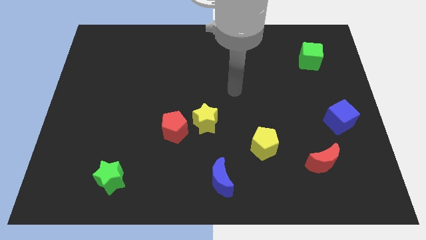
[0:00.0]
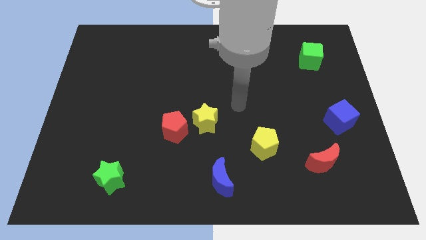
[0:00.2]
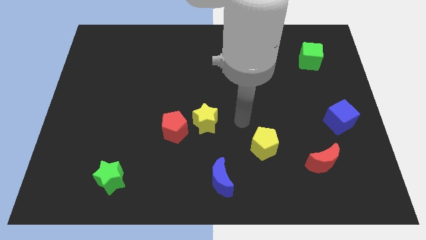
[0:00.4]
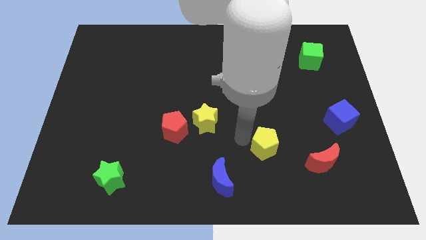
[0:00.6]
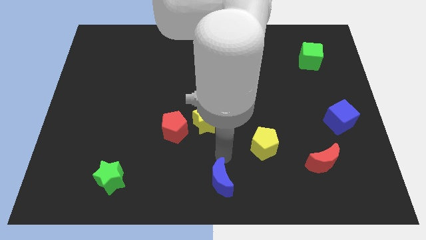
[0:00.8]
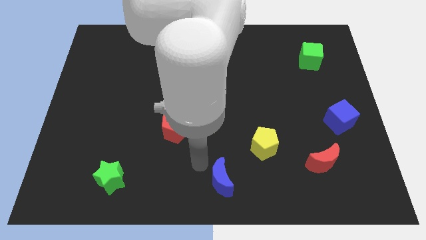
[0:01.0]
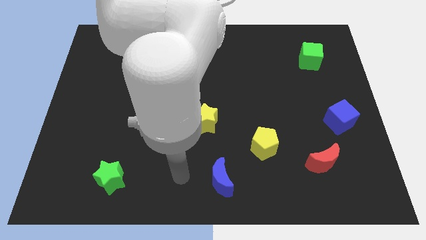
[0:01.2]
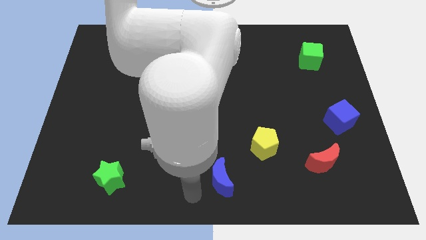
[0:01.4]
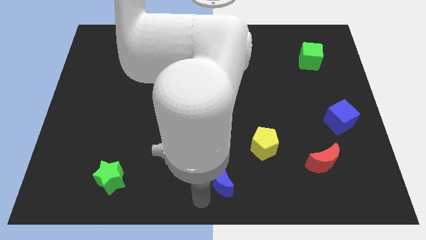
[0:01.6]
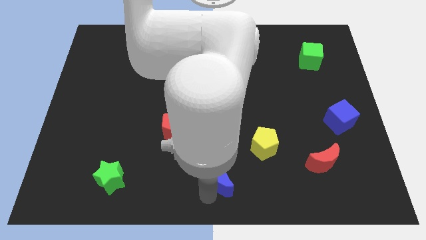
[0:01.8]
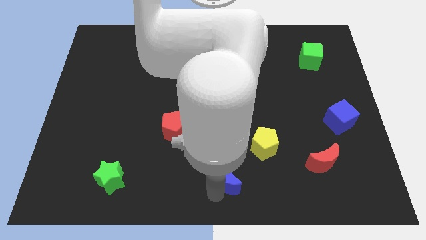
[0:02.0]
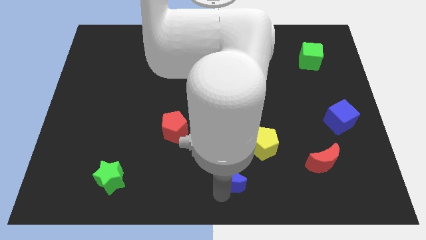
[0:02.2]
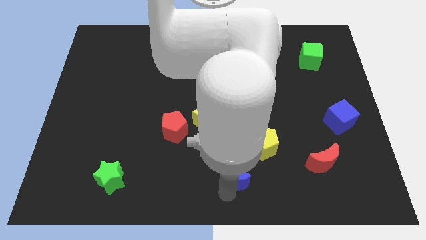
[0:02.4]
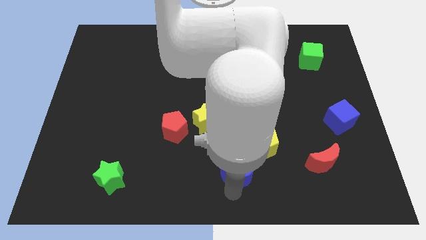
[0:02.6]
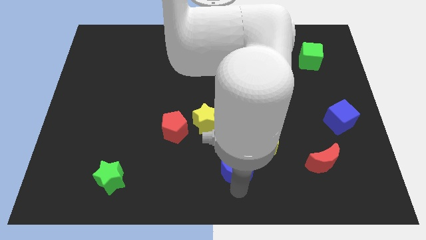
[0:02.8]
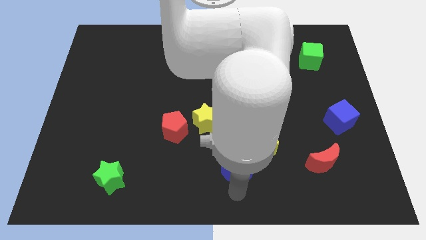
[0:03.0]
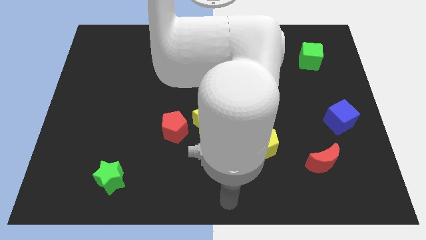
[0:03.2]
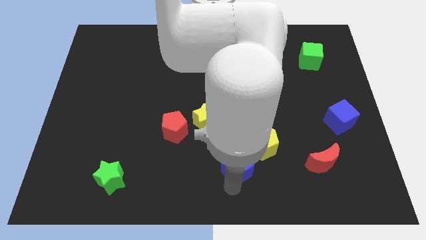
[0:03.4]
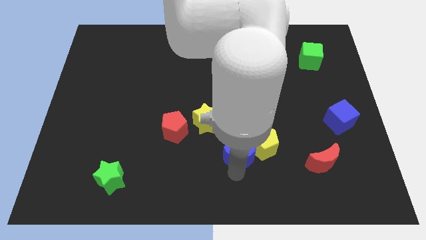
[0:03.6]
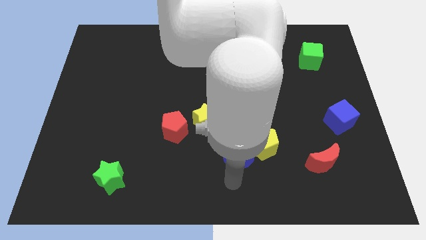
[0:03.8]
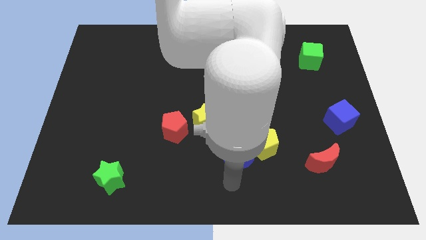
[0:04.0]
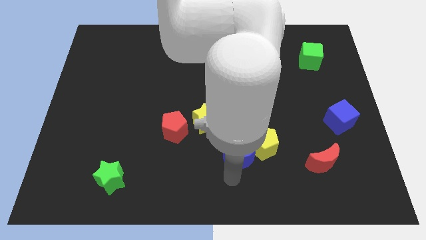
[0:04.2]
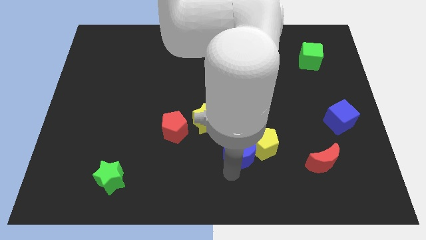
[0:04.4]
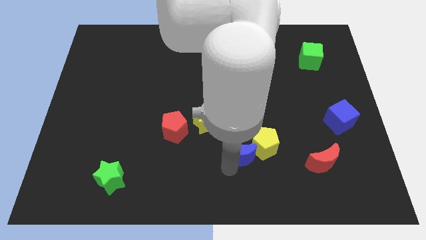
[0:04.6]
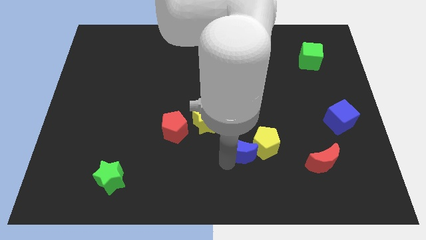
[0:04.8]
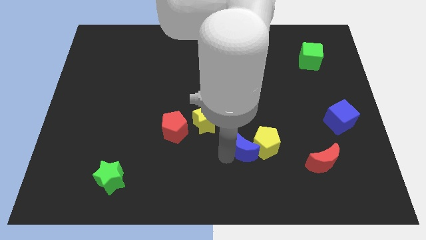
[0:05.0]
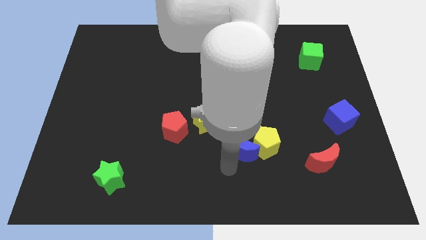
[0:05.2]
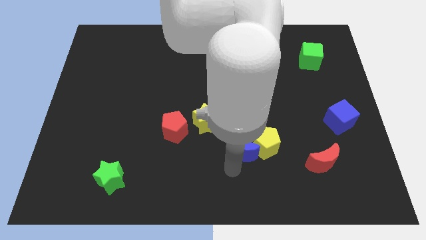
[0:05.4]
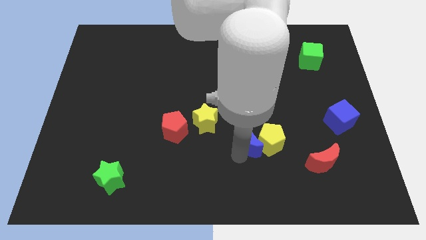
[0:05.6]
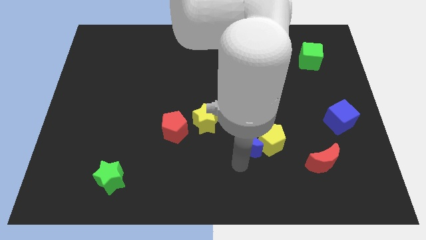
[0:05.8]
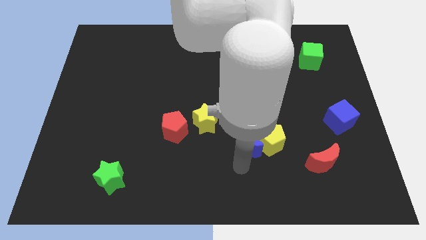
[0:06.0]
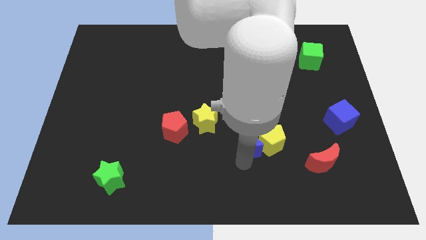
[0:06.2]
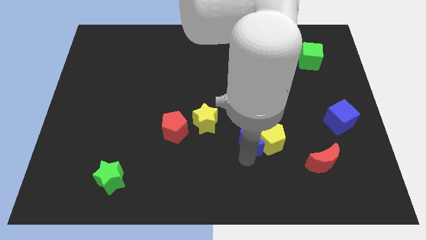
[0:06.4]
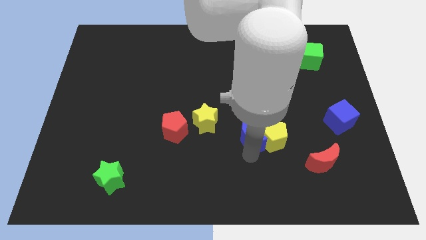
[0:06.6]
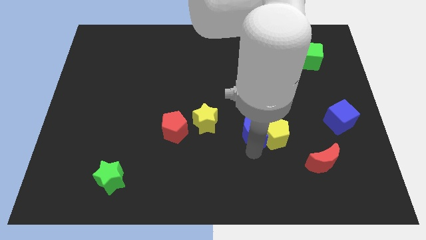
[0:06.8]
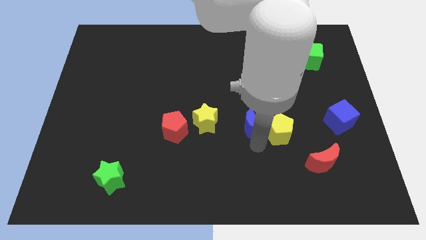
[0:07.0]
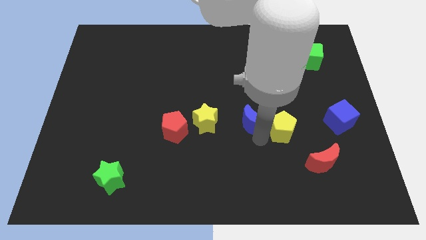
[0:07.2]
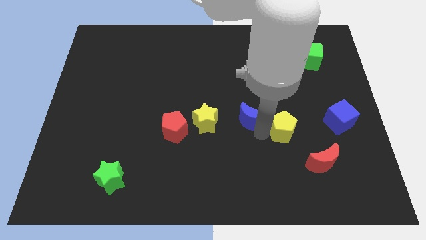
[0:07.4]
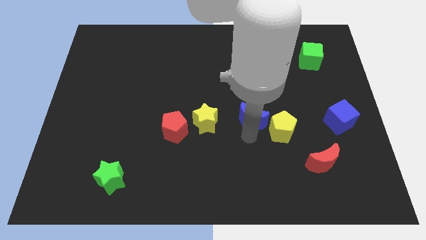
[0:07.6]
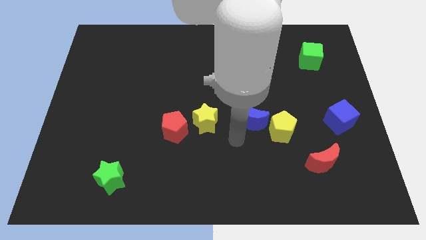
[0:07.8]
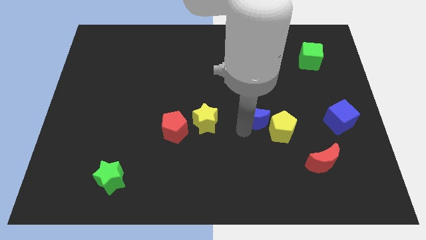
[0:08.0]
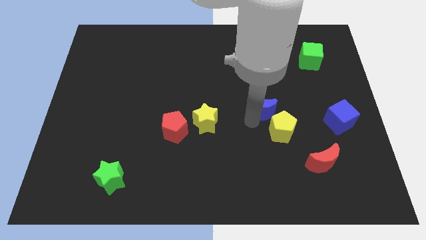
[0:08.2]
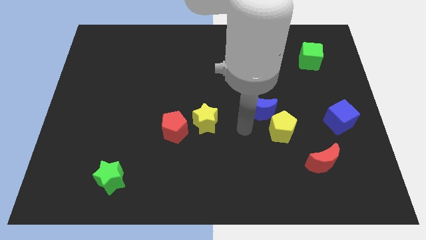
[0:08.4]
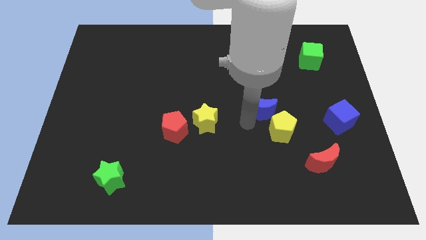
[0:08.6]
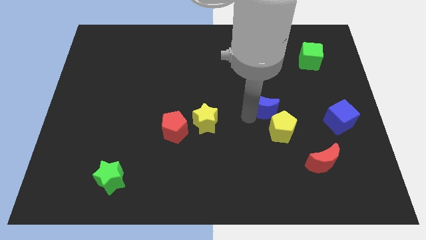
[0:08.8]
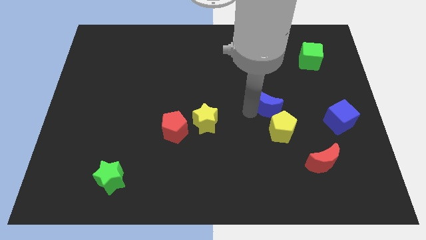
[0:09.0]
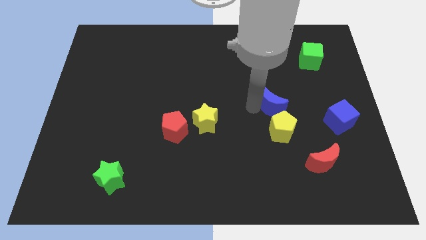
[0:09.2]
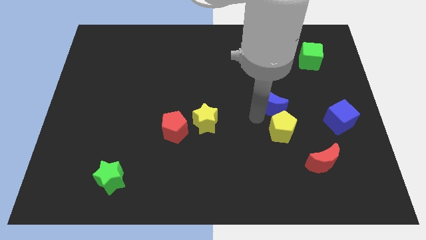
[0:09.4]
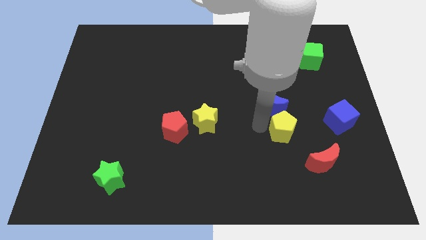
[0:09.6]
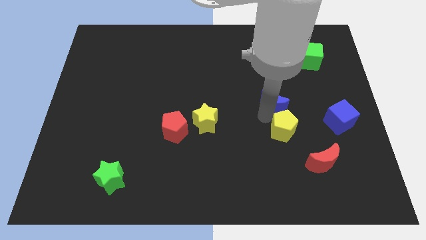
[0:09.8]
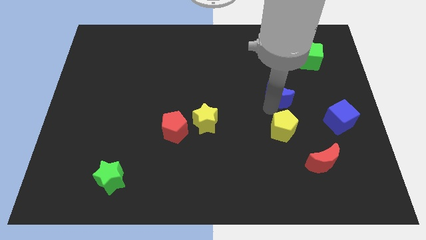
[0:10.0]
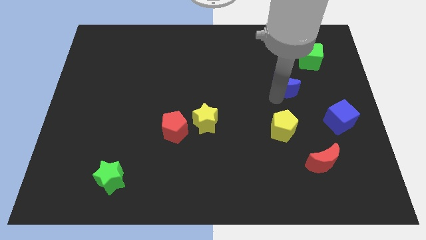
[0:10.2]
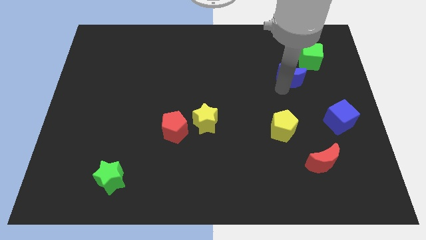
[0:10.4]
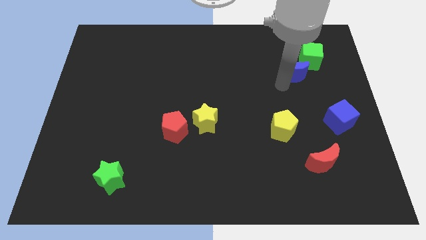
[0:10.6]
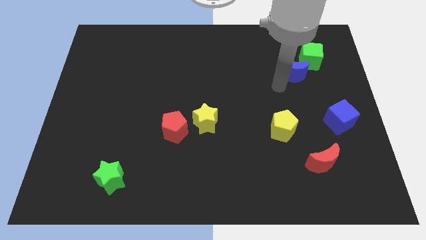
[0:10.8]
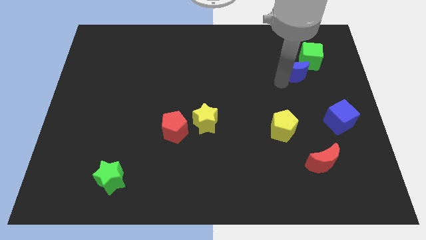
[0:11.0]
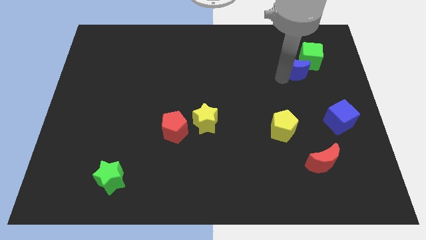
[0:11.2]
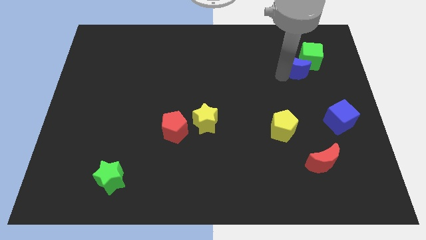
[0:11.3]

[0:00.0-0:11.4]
push the blue moon close to the green cube

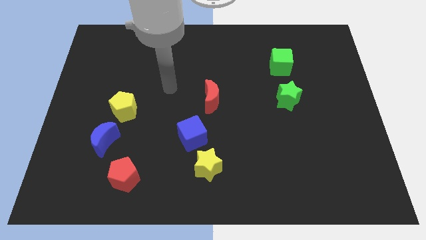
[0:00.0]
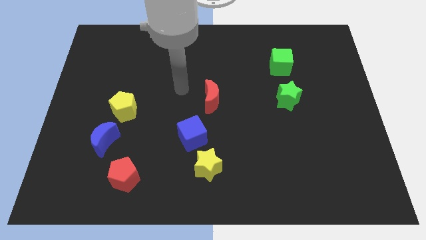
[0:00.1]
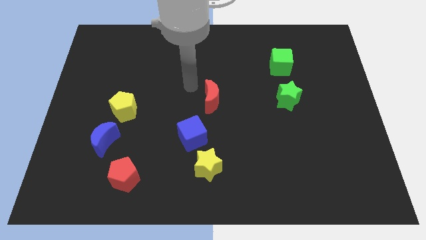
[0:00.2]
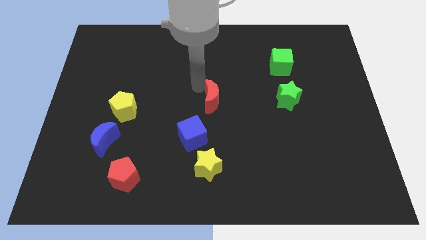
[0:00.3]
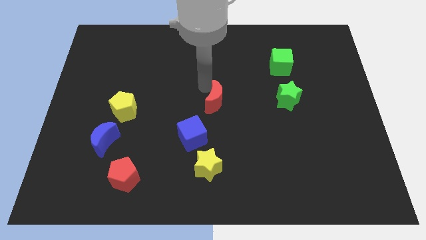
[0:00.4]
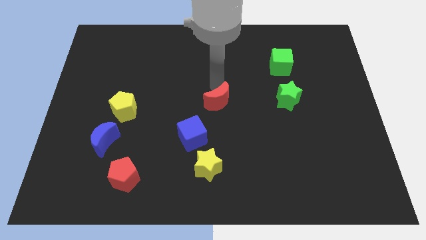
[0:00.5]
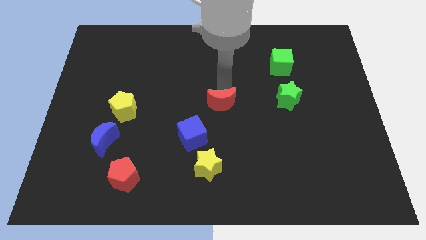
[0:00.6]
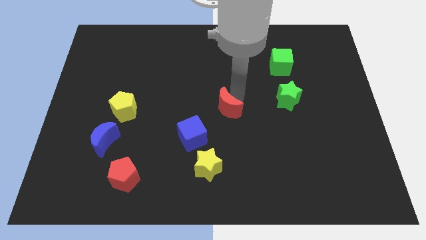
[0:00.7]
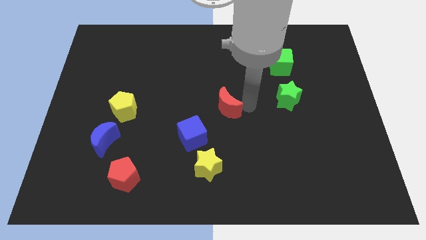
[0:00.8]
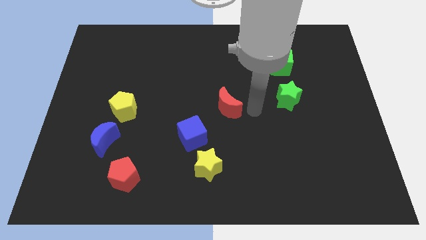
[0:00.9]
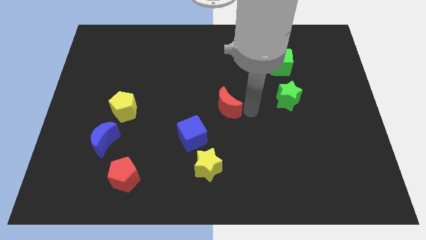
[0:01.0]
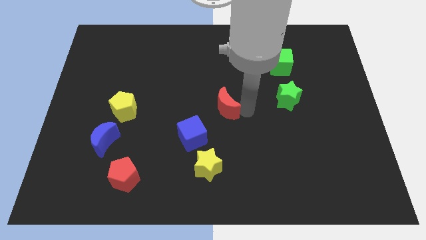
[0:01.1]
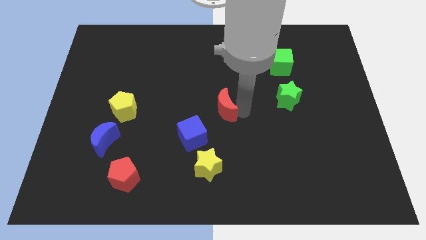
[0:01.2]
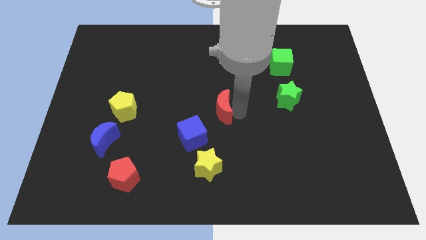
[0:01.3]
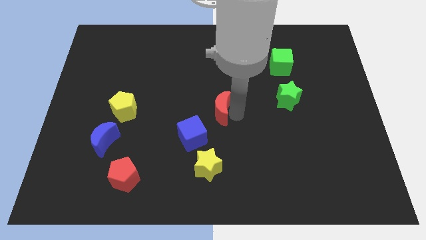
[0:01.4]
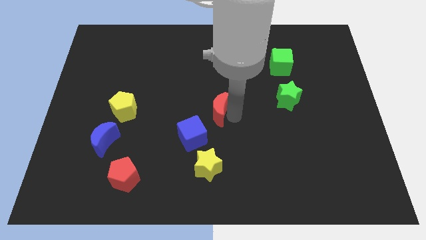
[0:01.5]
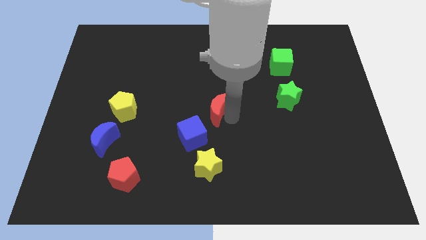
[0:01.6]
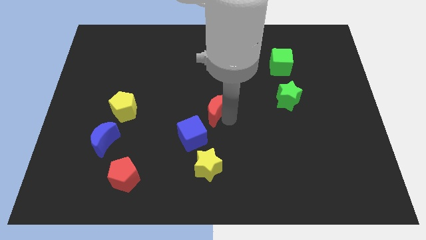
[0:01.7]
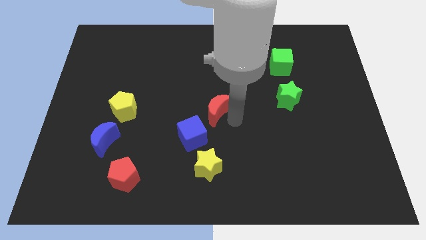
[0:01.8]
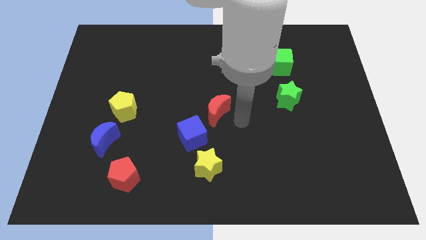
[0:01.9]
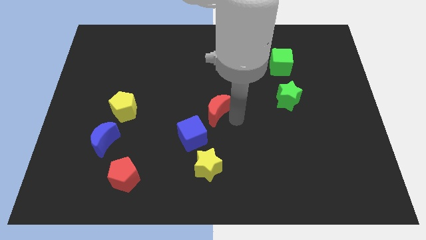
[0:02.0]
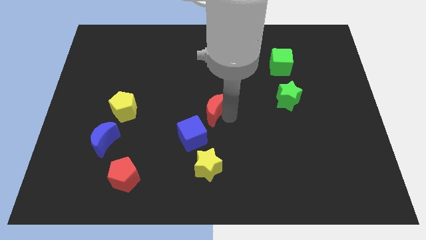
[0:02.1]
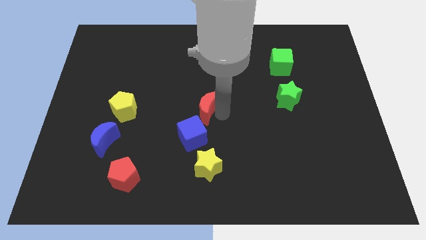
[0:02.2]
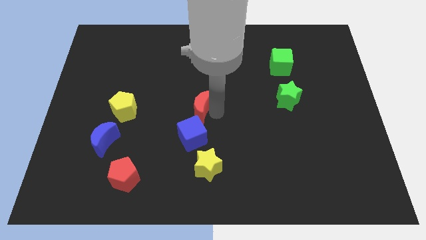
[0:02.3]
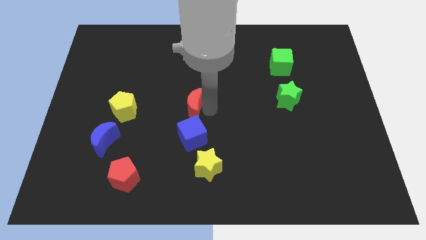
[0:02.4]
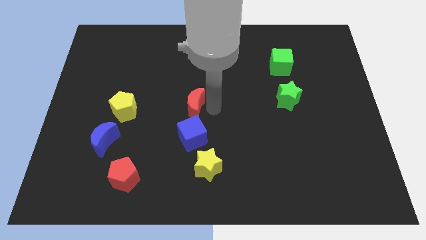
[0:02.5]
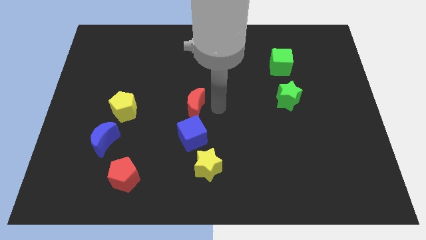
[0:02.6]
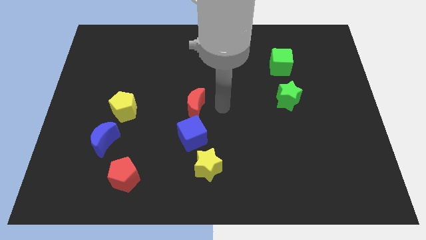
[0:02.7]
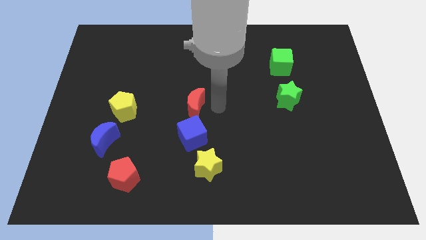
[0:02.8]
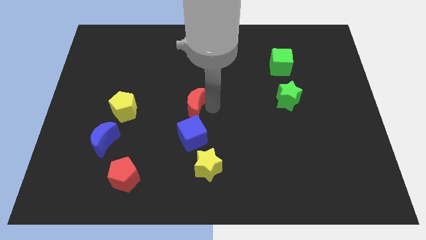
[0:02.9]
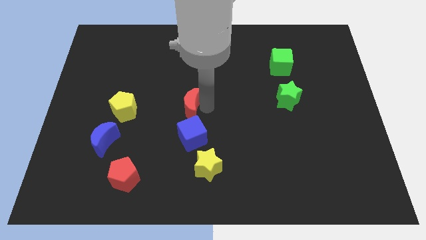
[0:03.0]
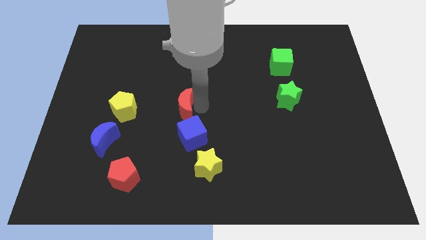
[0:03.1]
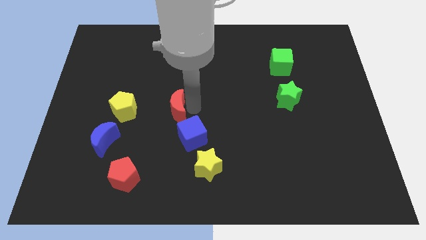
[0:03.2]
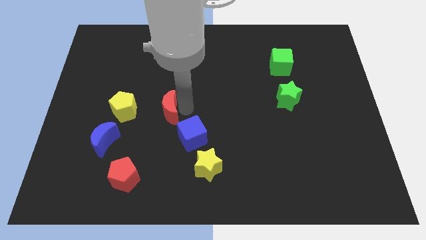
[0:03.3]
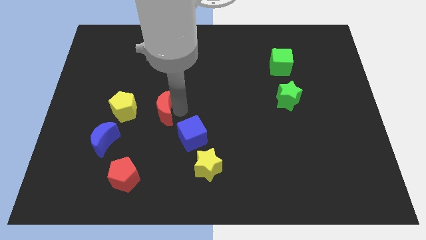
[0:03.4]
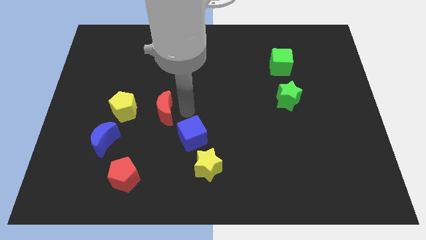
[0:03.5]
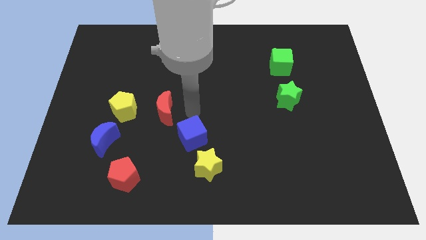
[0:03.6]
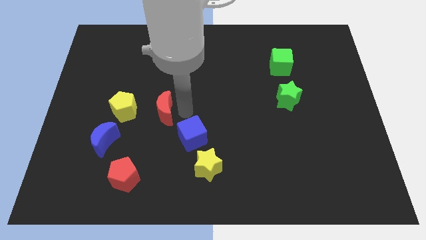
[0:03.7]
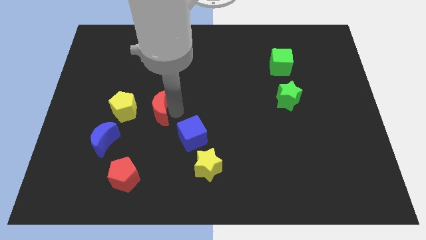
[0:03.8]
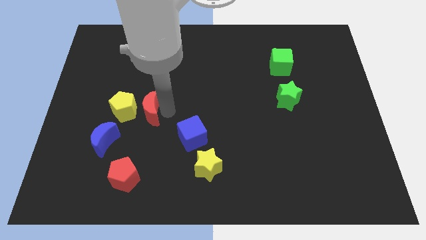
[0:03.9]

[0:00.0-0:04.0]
push the red moon close to the yellow pentagon
